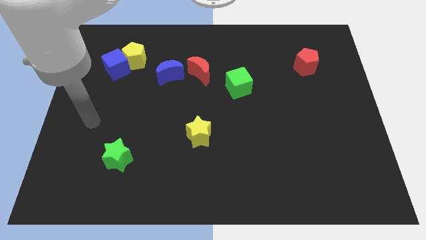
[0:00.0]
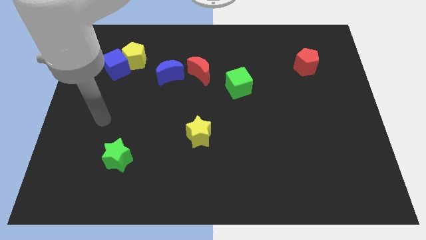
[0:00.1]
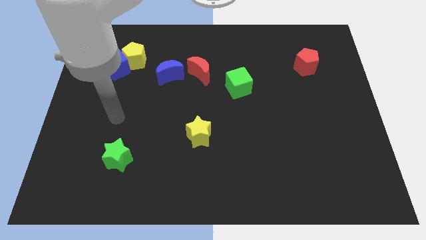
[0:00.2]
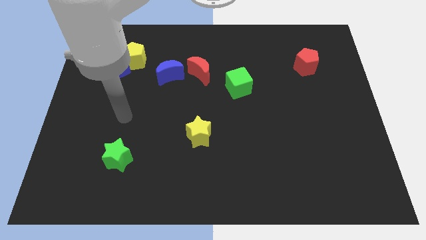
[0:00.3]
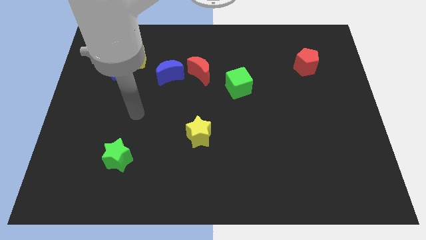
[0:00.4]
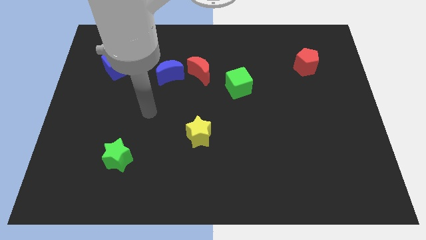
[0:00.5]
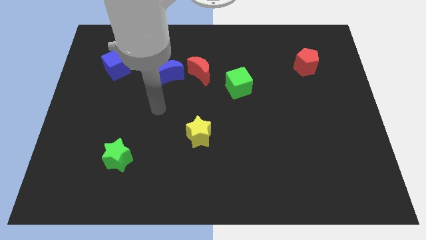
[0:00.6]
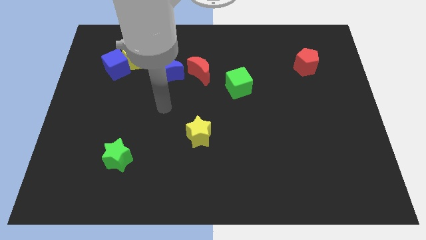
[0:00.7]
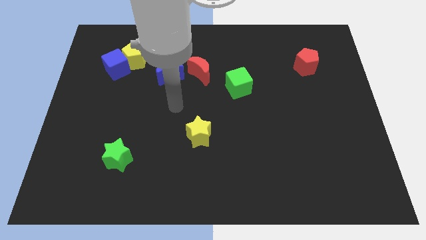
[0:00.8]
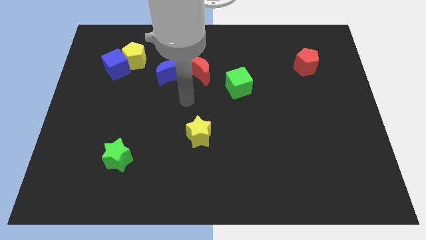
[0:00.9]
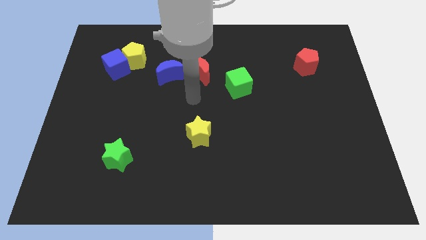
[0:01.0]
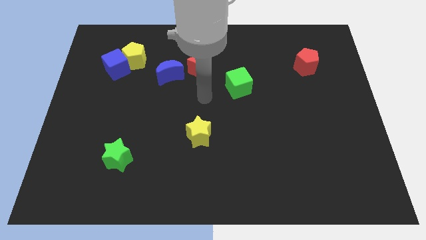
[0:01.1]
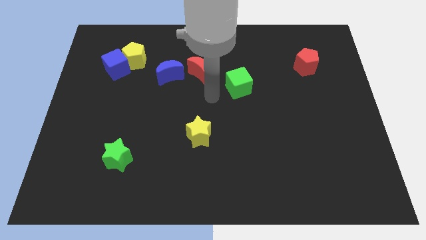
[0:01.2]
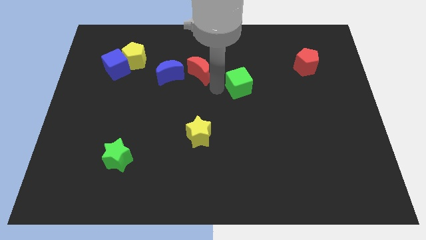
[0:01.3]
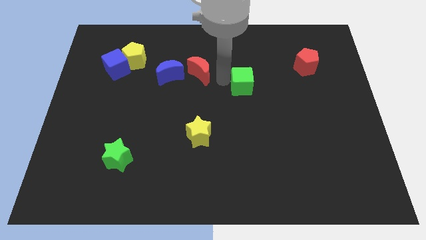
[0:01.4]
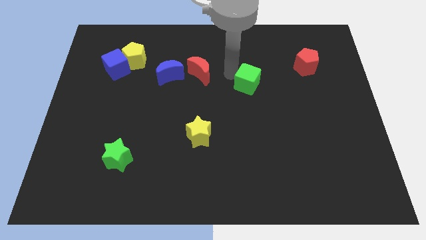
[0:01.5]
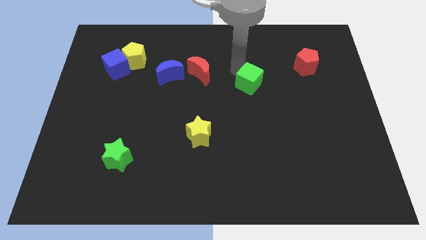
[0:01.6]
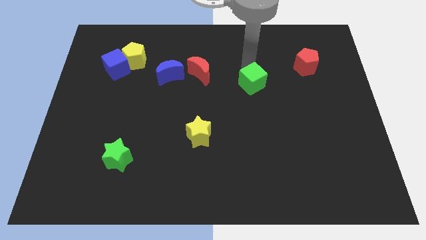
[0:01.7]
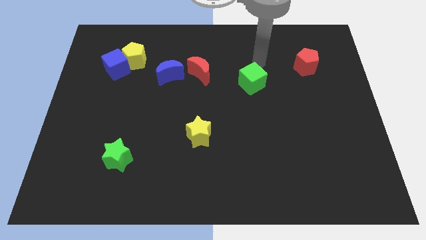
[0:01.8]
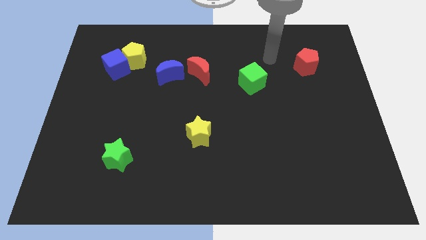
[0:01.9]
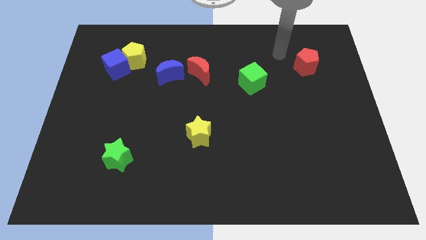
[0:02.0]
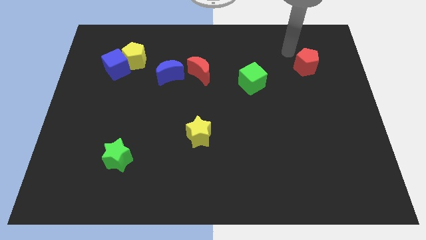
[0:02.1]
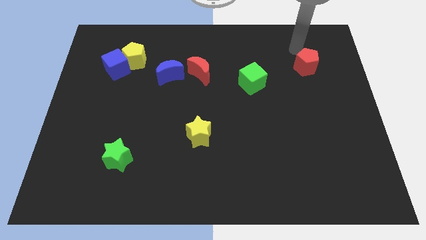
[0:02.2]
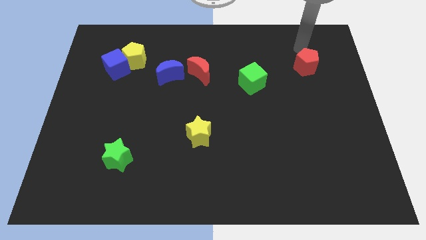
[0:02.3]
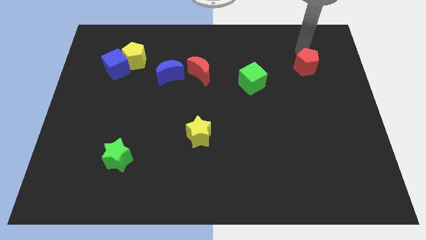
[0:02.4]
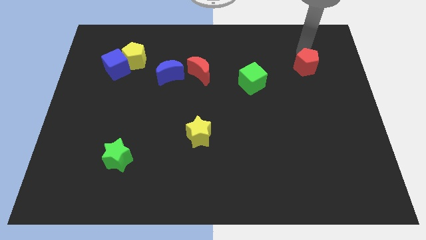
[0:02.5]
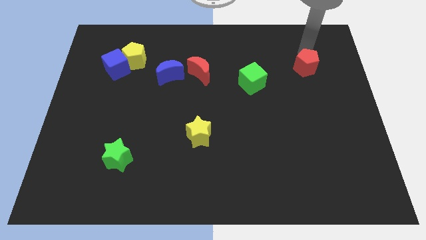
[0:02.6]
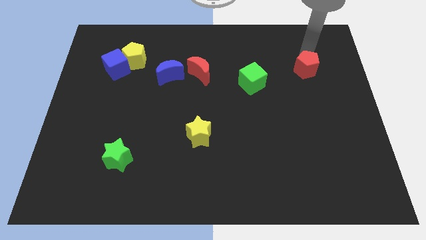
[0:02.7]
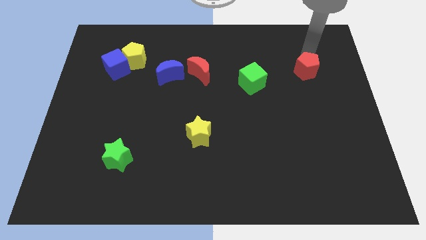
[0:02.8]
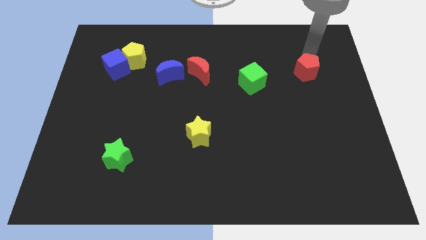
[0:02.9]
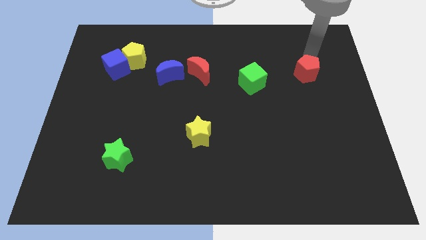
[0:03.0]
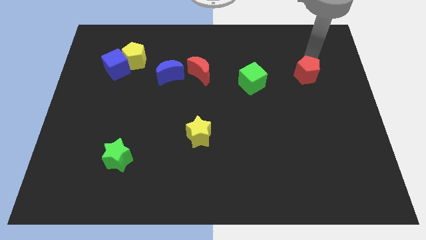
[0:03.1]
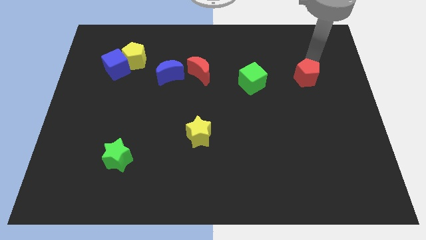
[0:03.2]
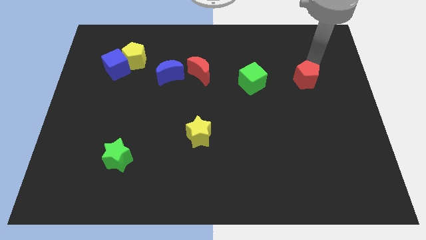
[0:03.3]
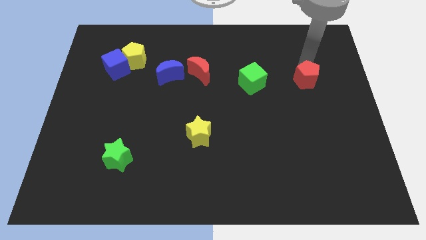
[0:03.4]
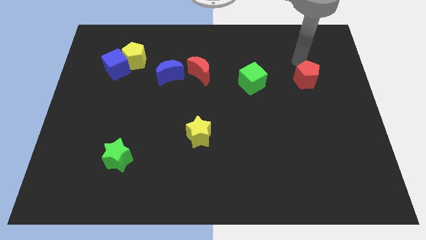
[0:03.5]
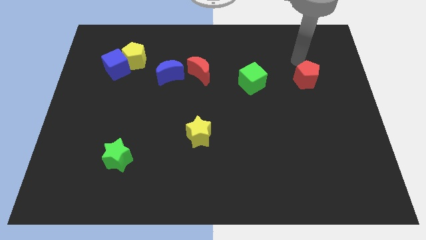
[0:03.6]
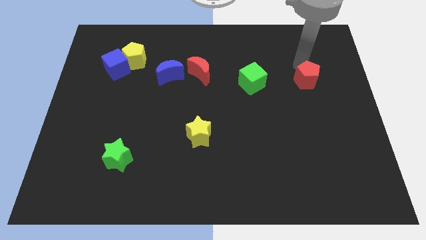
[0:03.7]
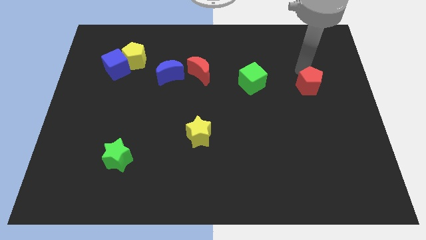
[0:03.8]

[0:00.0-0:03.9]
move the red pentagon downwards a bit

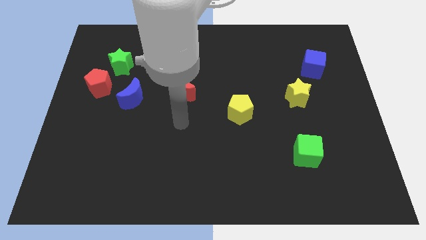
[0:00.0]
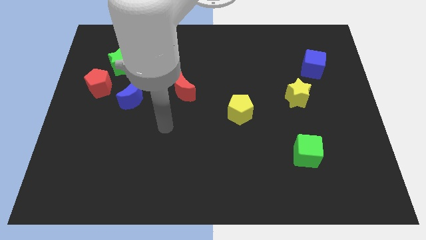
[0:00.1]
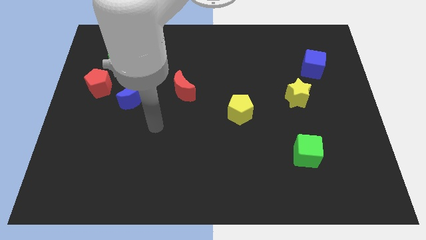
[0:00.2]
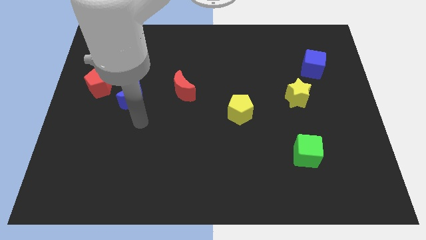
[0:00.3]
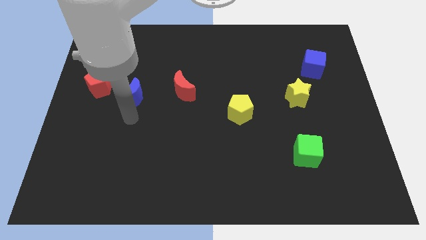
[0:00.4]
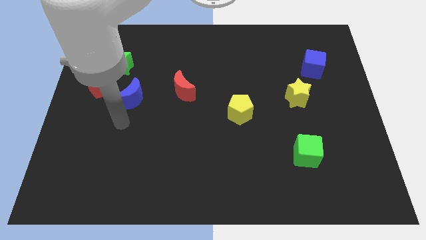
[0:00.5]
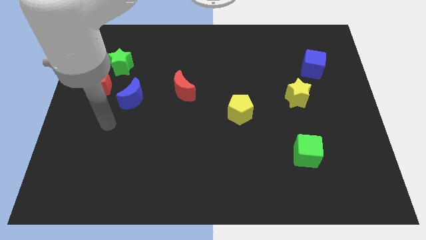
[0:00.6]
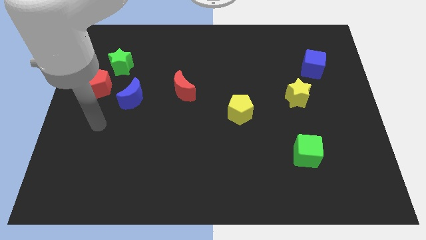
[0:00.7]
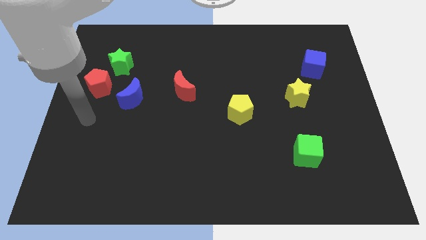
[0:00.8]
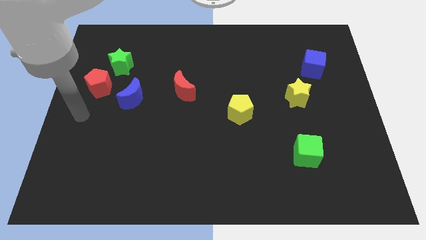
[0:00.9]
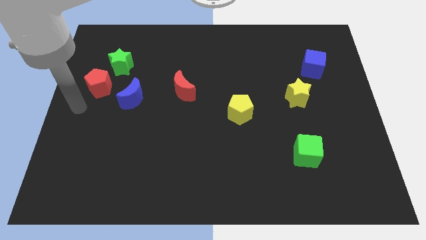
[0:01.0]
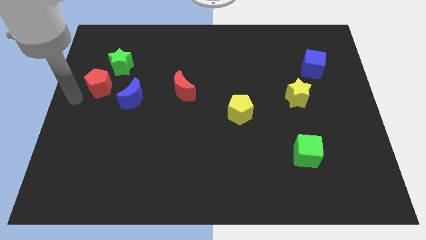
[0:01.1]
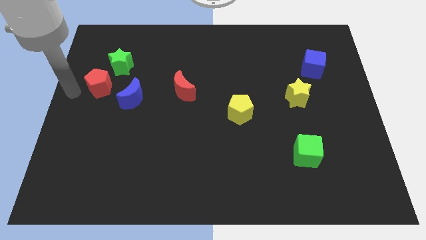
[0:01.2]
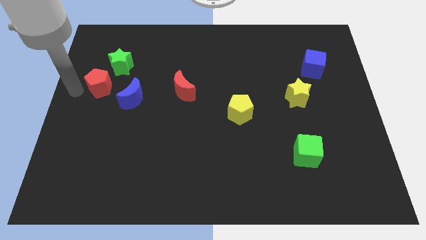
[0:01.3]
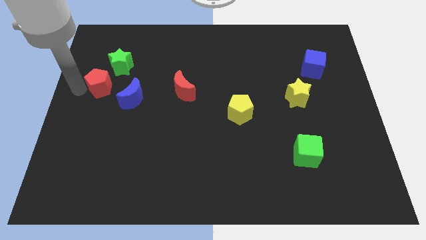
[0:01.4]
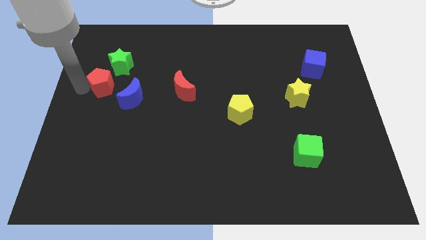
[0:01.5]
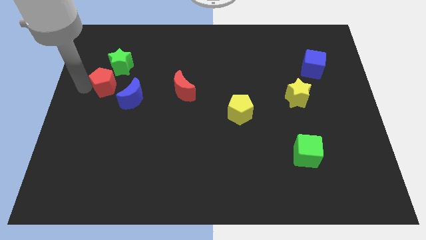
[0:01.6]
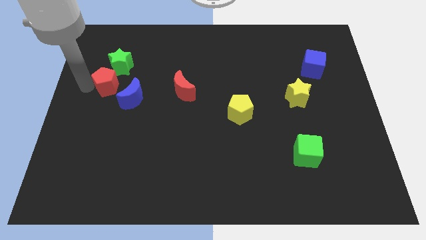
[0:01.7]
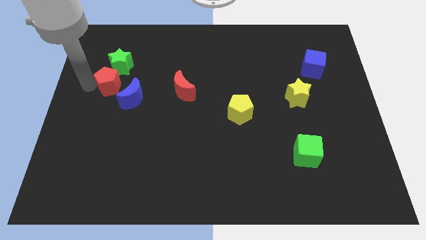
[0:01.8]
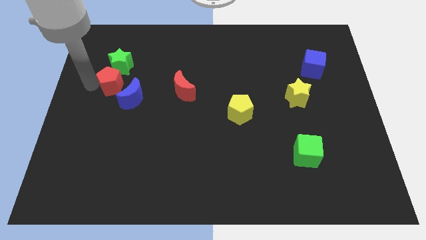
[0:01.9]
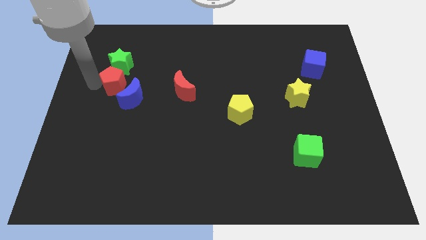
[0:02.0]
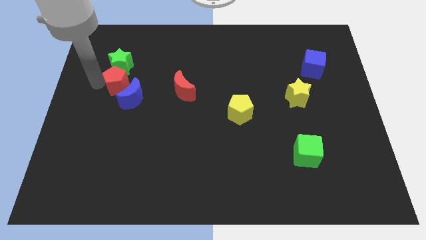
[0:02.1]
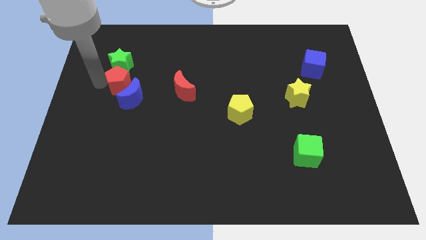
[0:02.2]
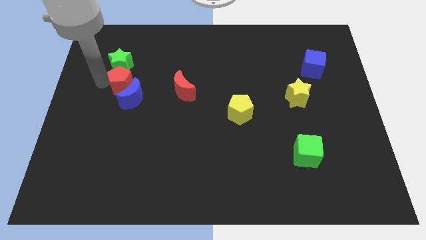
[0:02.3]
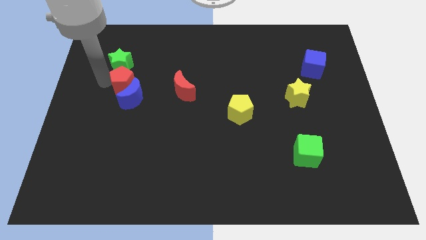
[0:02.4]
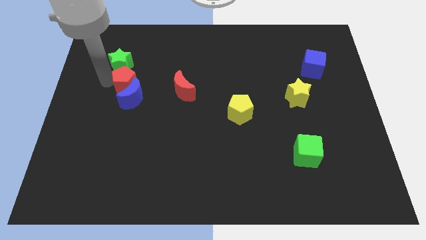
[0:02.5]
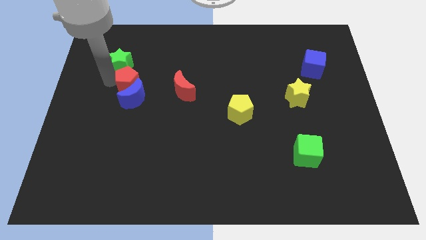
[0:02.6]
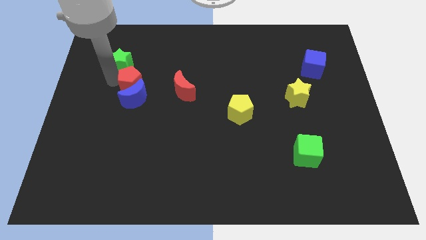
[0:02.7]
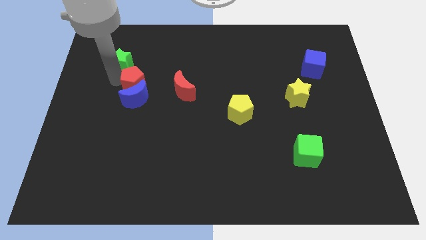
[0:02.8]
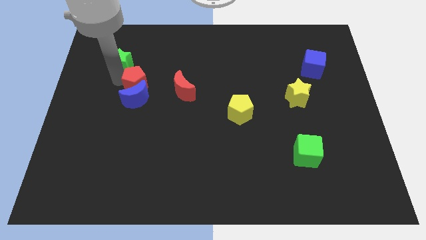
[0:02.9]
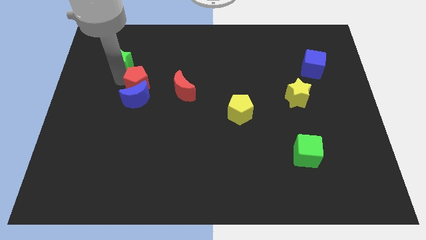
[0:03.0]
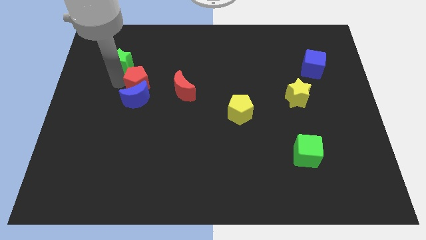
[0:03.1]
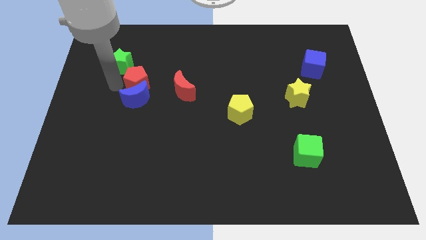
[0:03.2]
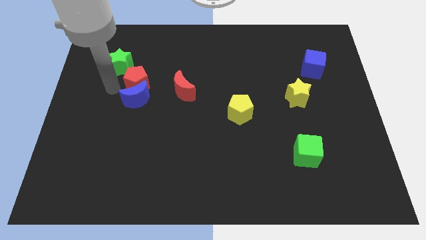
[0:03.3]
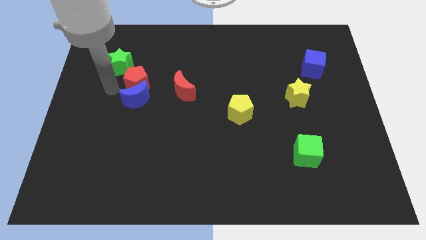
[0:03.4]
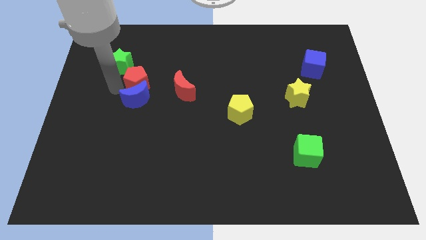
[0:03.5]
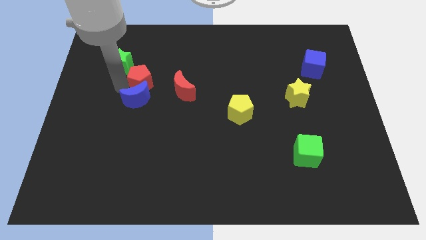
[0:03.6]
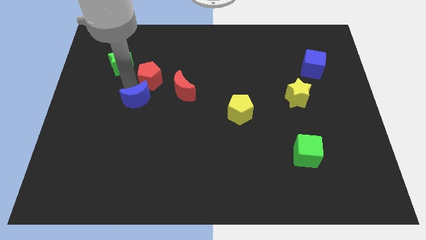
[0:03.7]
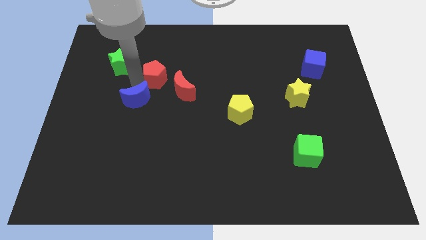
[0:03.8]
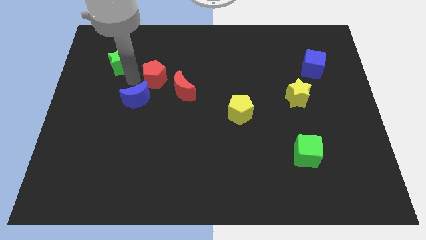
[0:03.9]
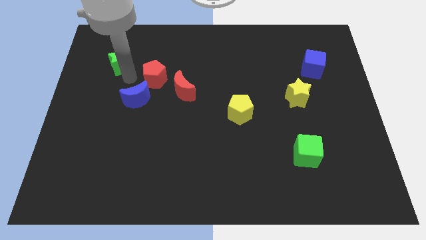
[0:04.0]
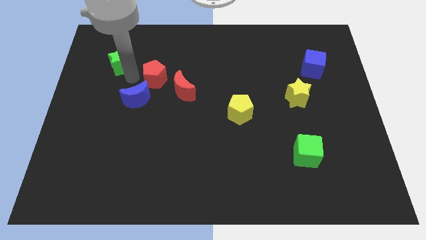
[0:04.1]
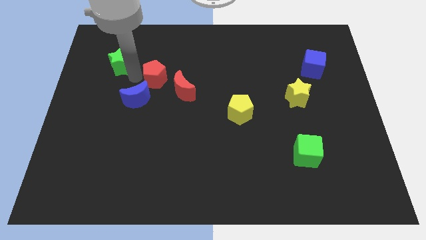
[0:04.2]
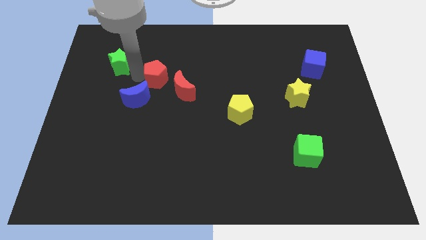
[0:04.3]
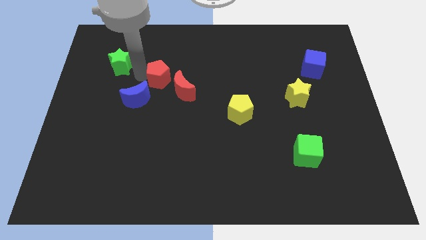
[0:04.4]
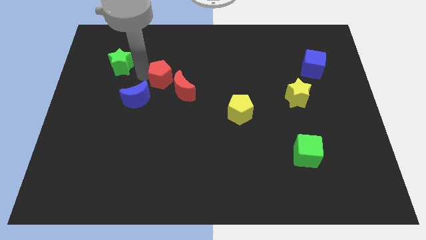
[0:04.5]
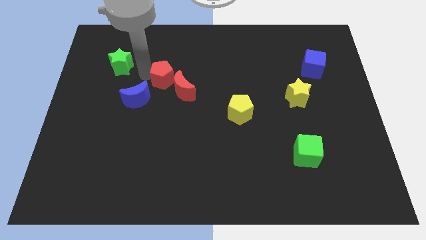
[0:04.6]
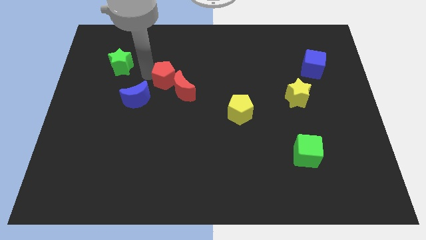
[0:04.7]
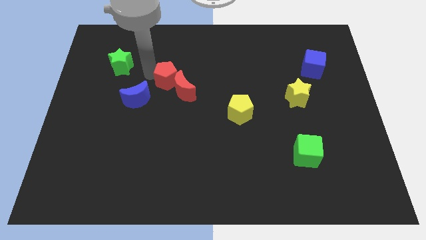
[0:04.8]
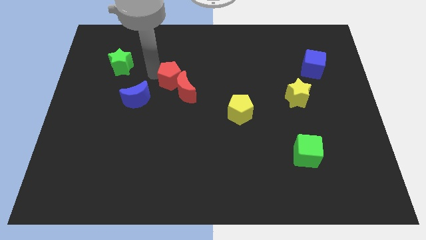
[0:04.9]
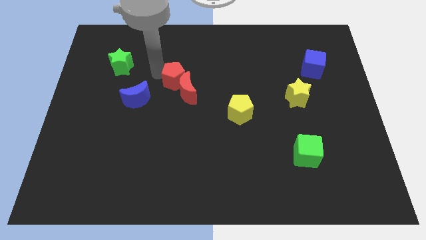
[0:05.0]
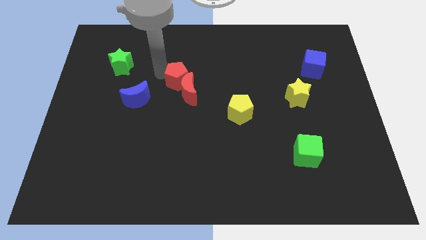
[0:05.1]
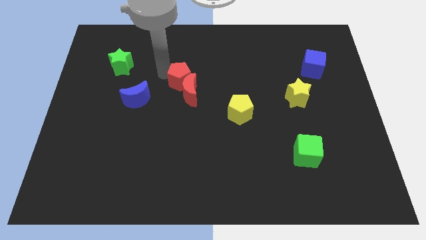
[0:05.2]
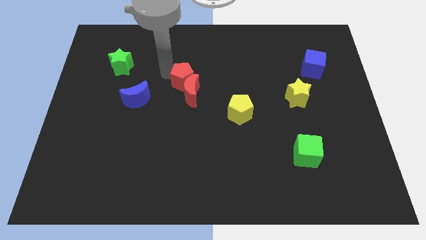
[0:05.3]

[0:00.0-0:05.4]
move the red pentagon to the right
